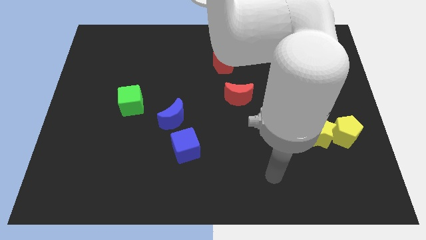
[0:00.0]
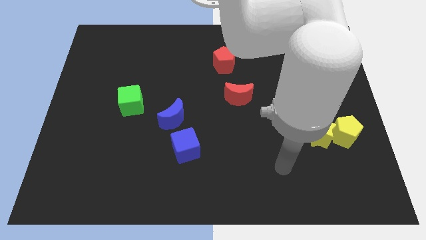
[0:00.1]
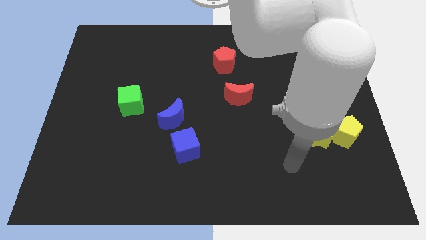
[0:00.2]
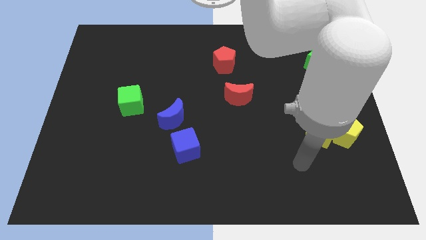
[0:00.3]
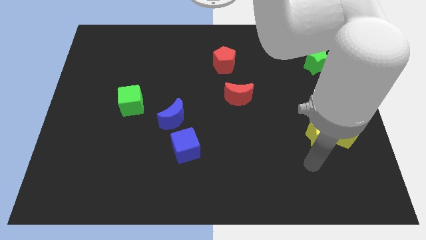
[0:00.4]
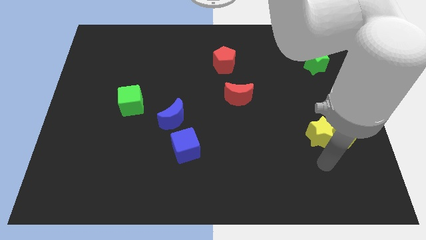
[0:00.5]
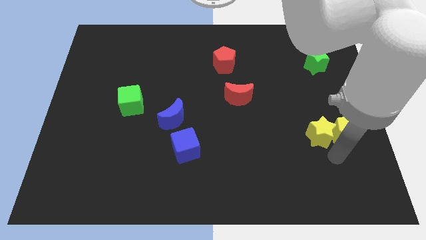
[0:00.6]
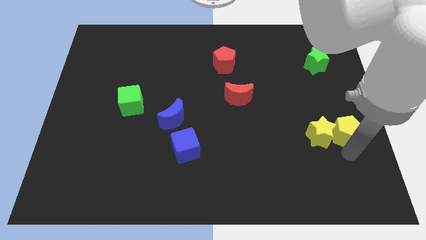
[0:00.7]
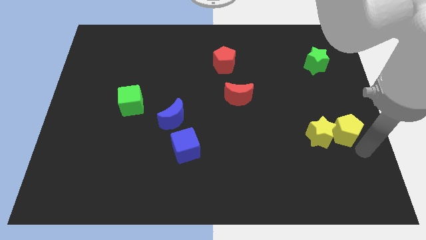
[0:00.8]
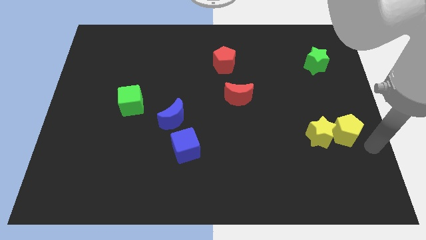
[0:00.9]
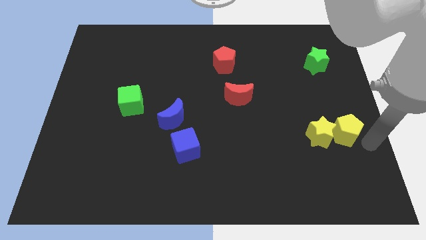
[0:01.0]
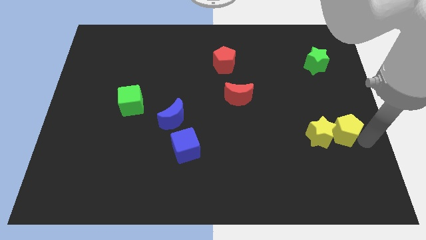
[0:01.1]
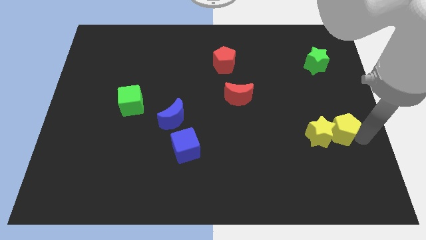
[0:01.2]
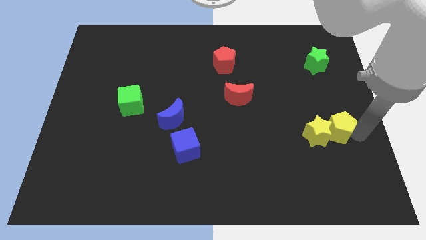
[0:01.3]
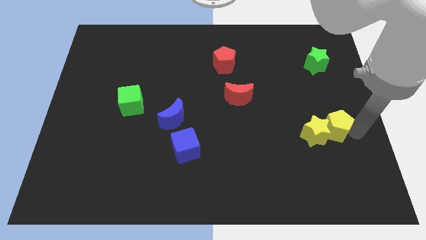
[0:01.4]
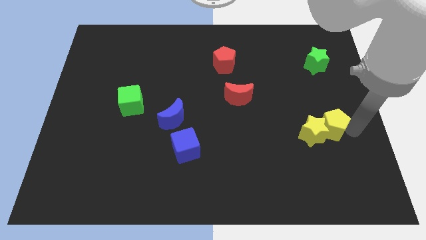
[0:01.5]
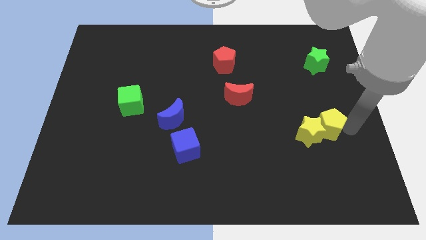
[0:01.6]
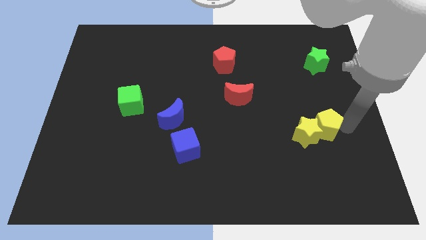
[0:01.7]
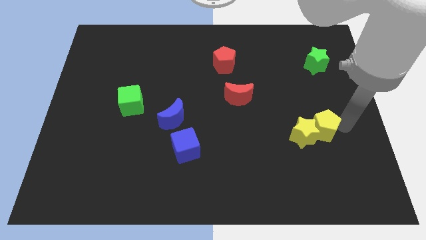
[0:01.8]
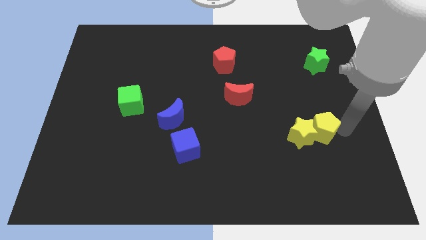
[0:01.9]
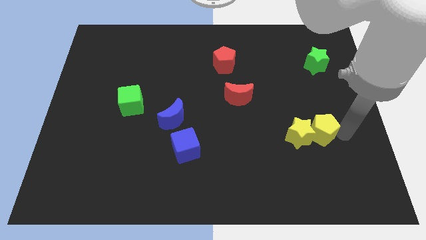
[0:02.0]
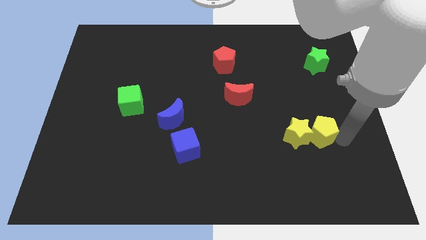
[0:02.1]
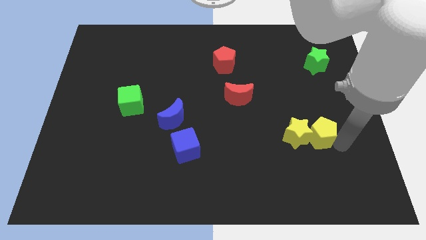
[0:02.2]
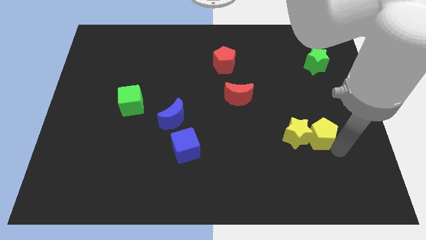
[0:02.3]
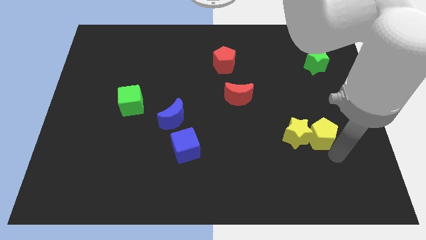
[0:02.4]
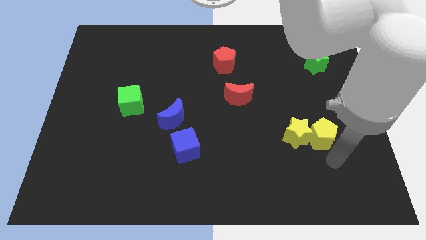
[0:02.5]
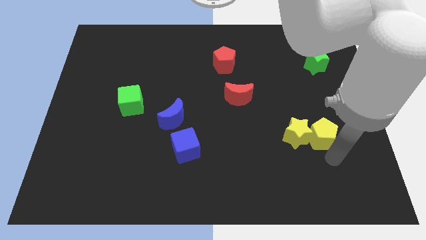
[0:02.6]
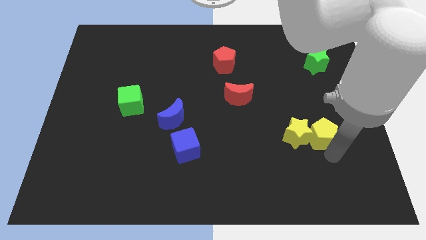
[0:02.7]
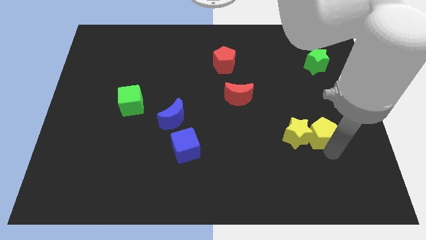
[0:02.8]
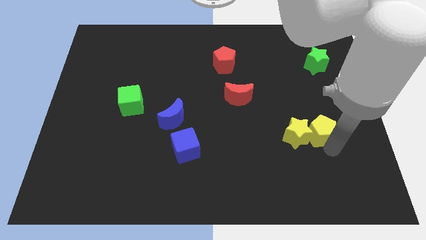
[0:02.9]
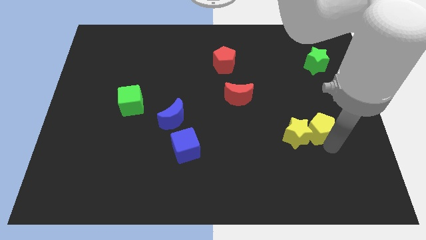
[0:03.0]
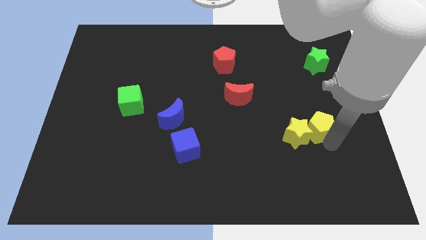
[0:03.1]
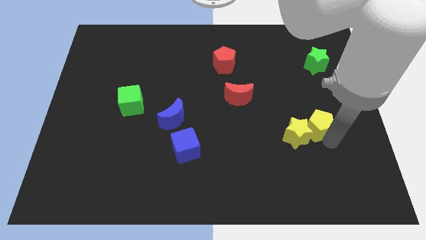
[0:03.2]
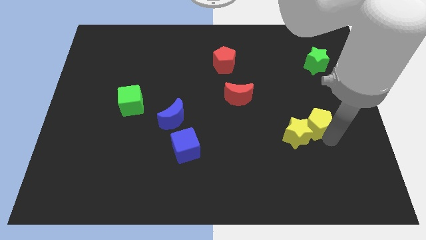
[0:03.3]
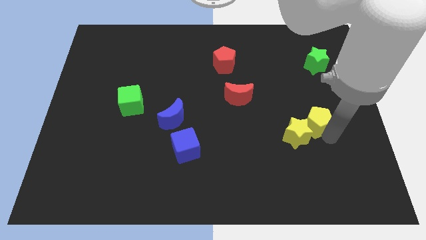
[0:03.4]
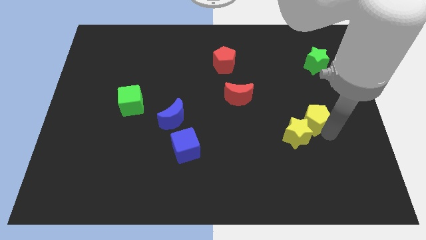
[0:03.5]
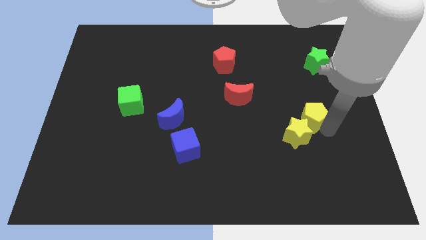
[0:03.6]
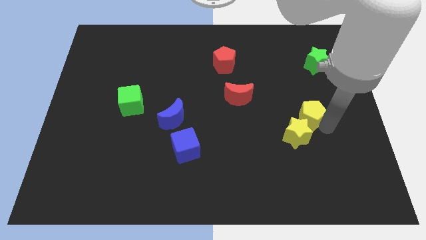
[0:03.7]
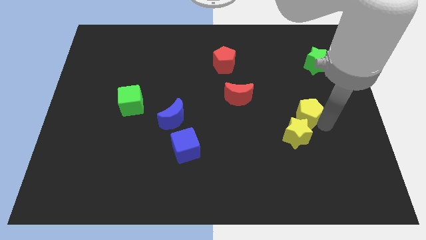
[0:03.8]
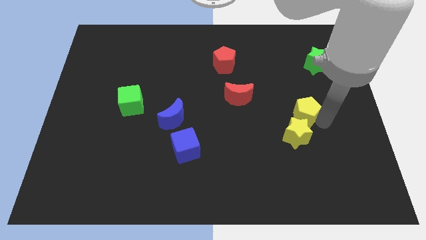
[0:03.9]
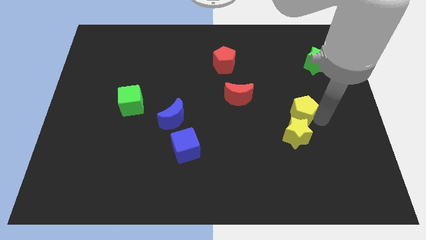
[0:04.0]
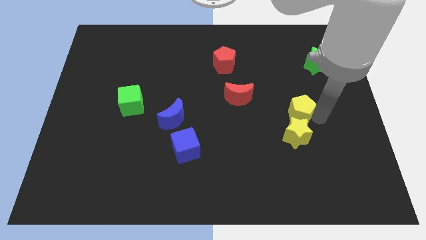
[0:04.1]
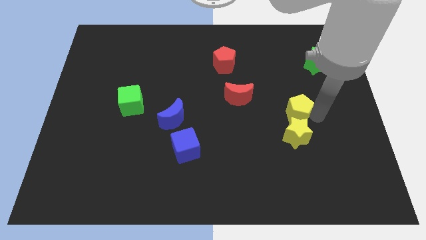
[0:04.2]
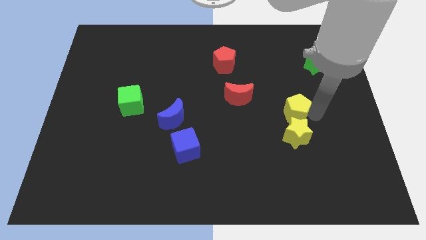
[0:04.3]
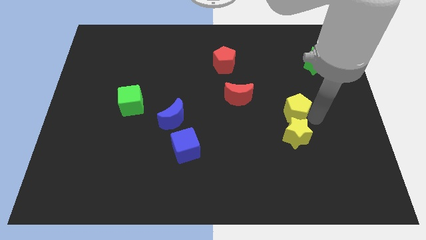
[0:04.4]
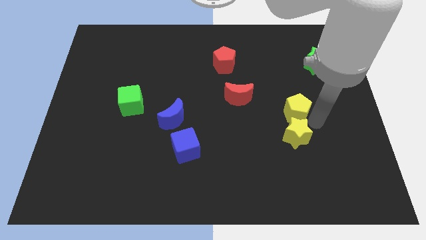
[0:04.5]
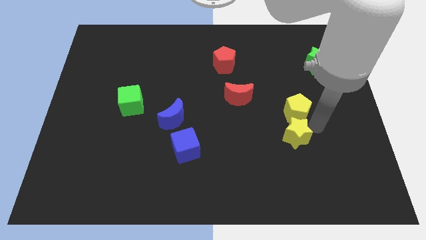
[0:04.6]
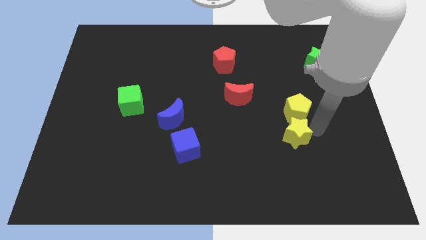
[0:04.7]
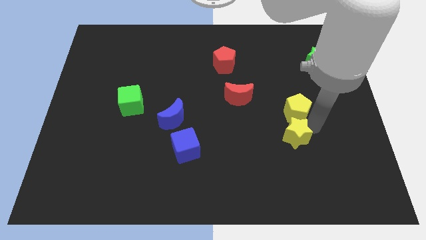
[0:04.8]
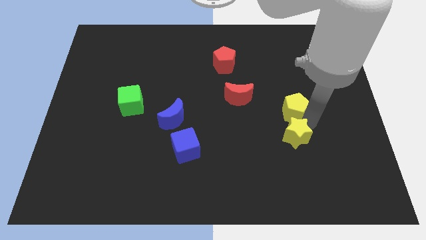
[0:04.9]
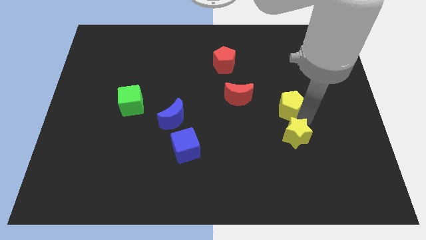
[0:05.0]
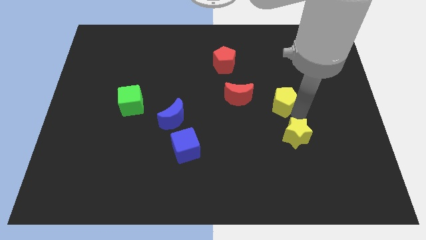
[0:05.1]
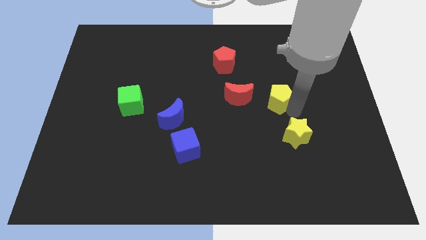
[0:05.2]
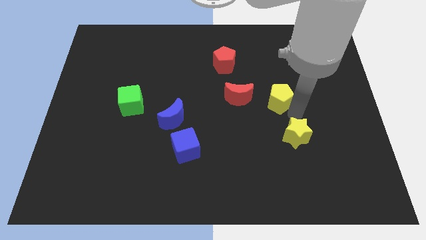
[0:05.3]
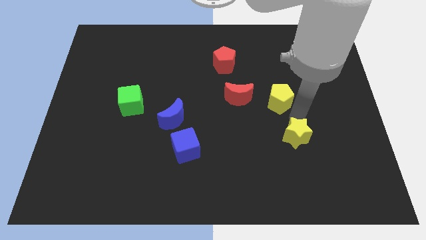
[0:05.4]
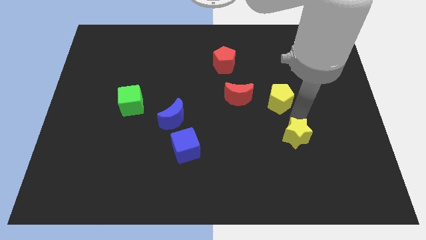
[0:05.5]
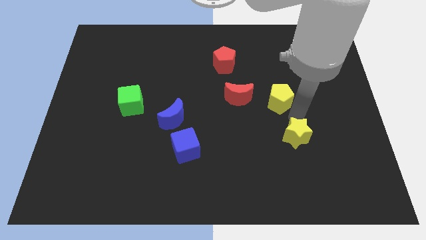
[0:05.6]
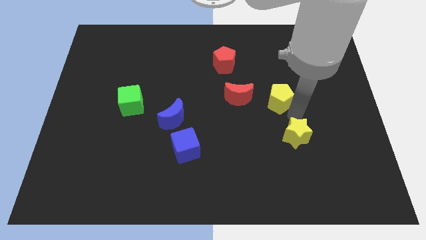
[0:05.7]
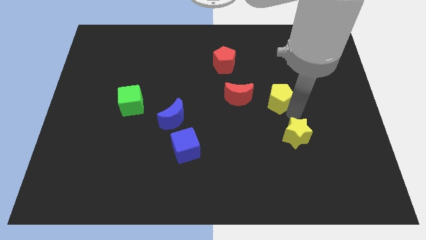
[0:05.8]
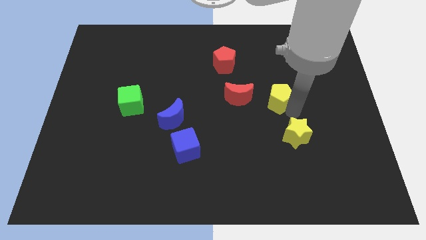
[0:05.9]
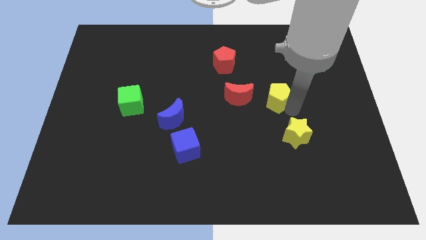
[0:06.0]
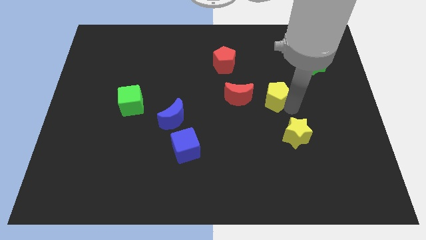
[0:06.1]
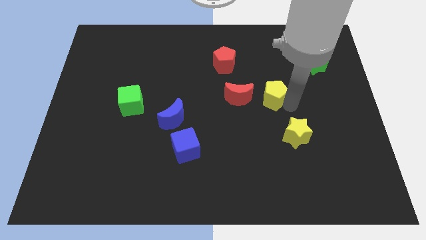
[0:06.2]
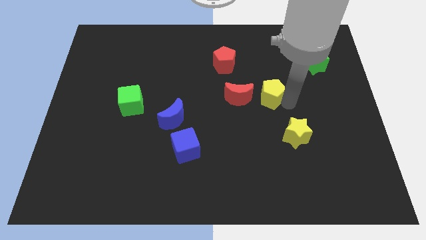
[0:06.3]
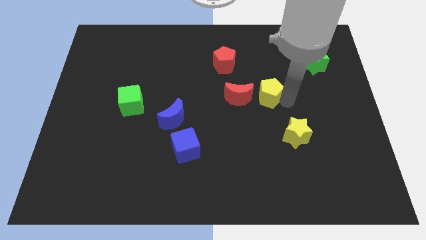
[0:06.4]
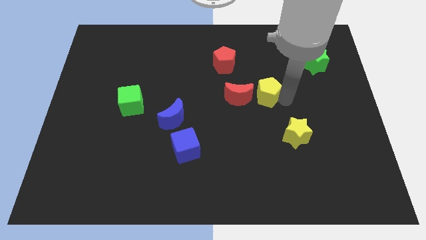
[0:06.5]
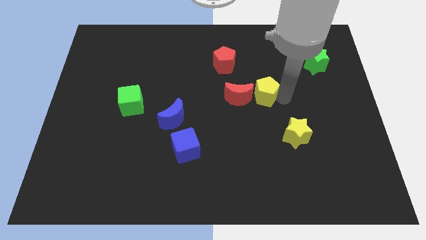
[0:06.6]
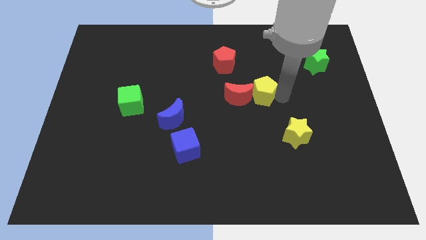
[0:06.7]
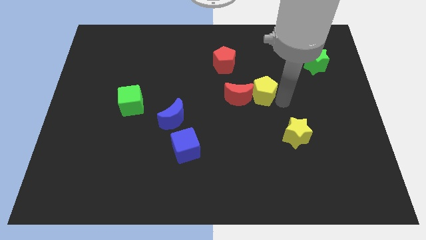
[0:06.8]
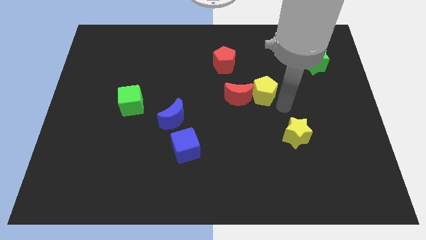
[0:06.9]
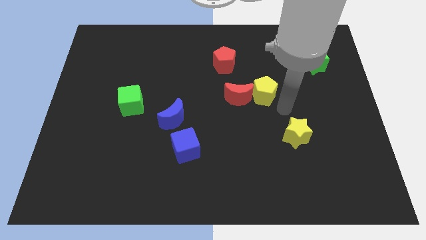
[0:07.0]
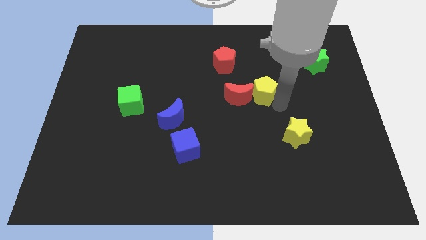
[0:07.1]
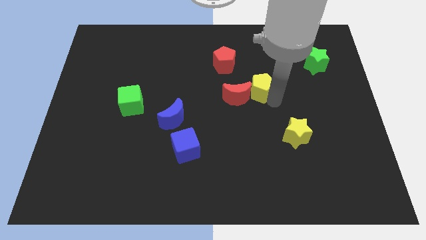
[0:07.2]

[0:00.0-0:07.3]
slide the yellow pentagon diagonally down and to the right of the red pentagon
